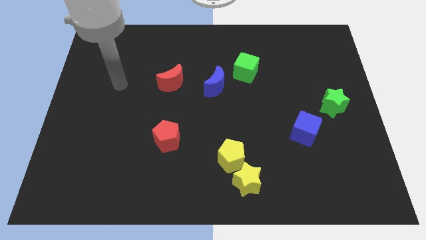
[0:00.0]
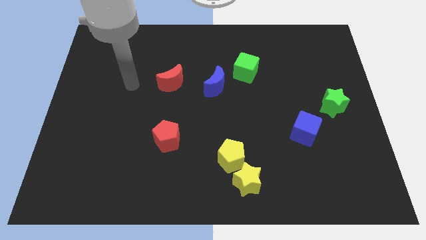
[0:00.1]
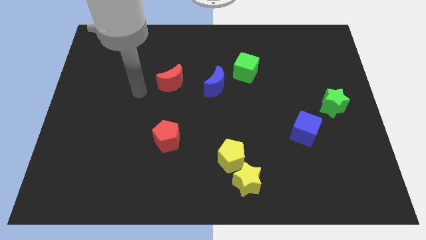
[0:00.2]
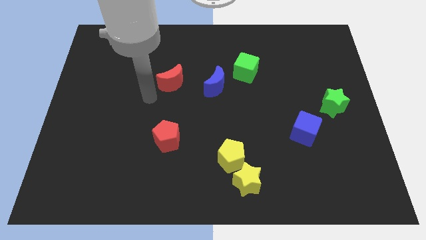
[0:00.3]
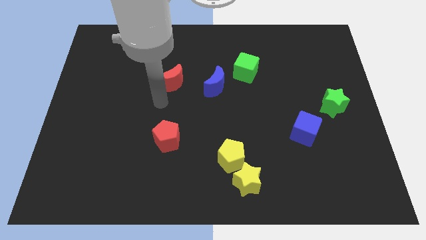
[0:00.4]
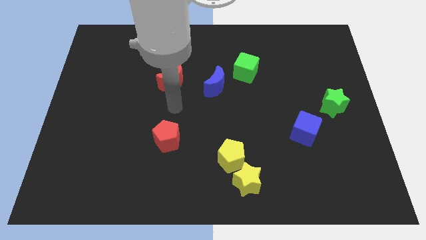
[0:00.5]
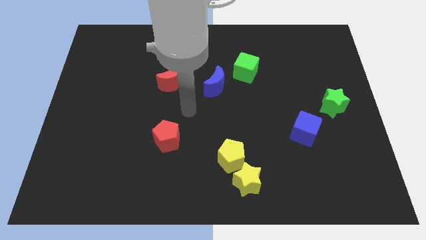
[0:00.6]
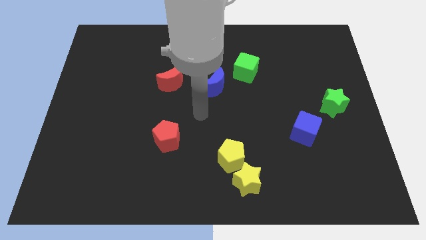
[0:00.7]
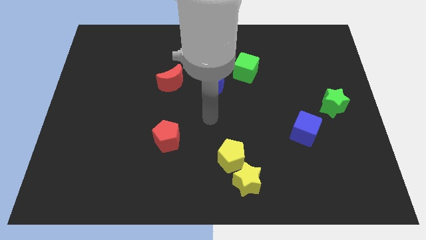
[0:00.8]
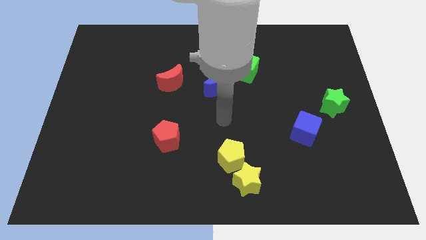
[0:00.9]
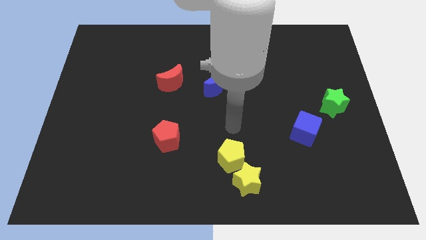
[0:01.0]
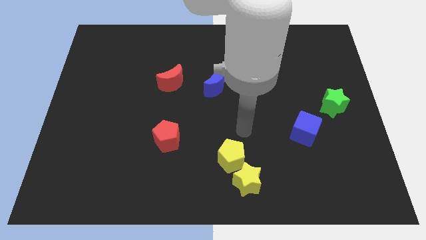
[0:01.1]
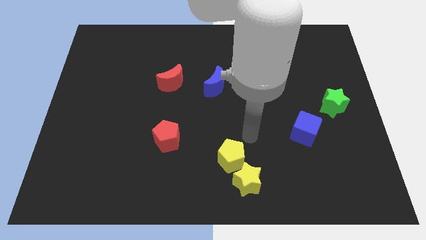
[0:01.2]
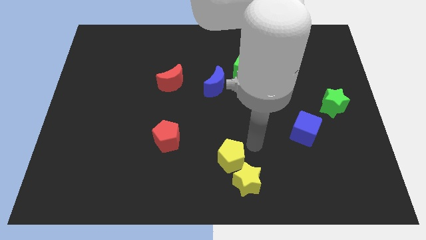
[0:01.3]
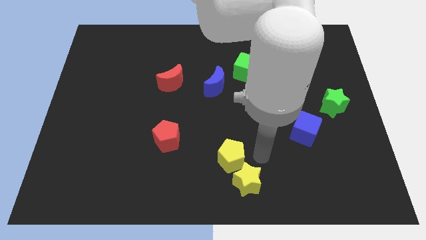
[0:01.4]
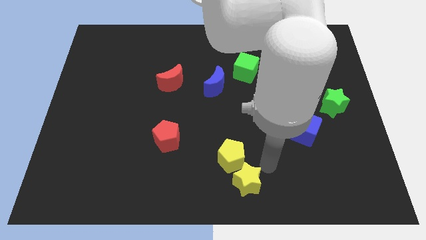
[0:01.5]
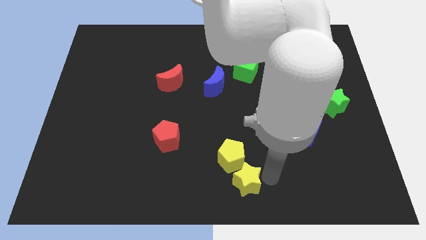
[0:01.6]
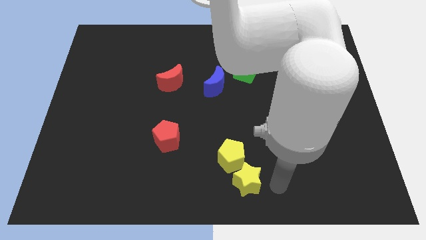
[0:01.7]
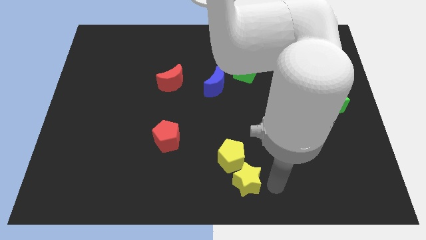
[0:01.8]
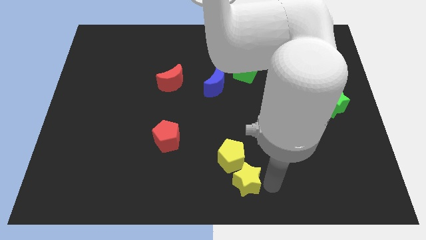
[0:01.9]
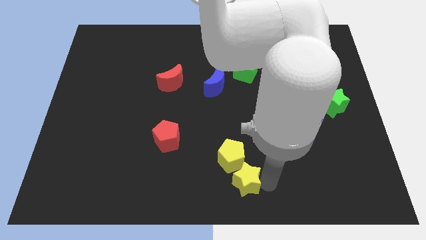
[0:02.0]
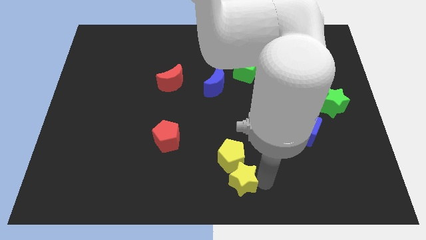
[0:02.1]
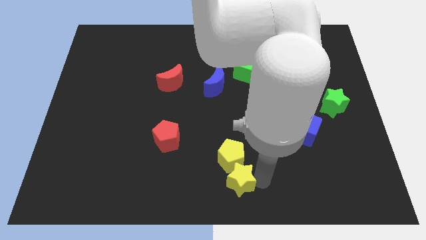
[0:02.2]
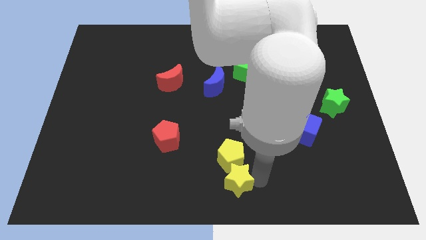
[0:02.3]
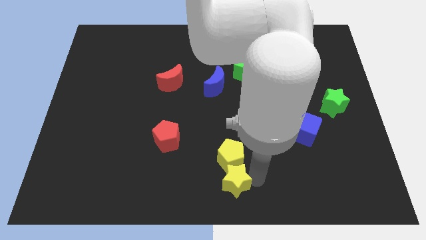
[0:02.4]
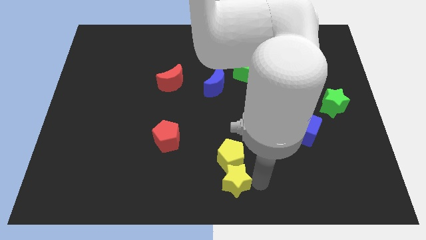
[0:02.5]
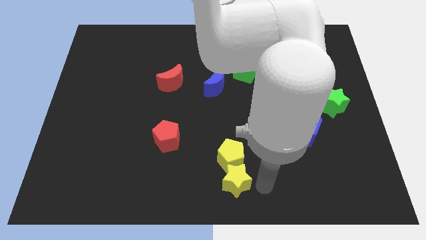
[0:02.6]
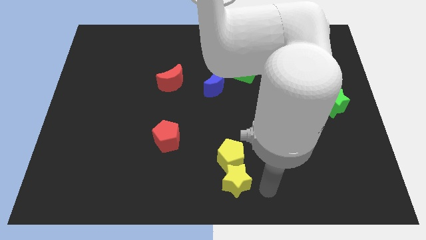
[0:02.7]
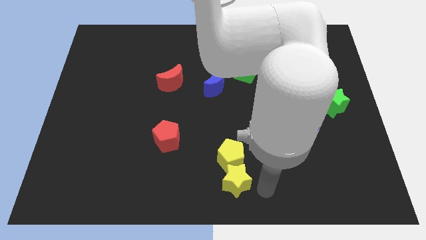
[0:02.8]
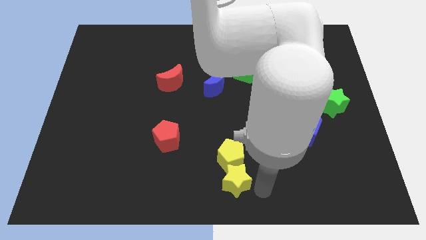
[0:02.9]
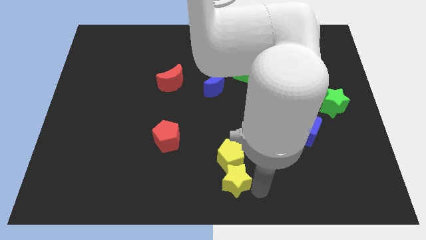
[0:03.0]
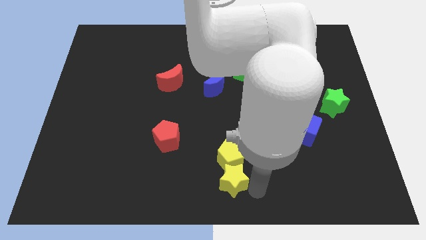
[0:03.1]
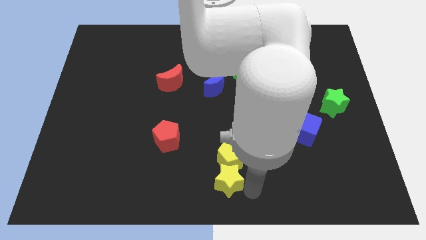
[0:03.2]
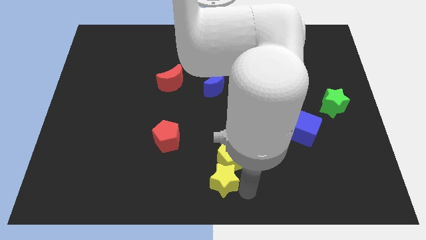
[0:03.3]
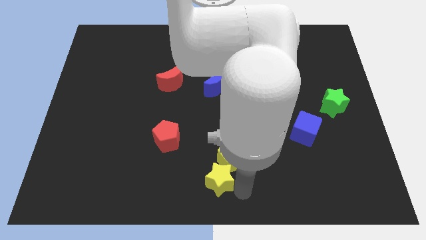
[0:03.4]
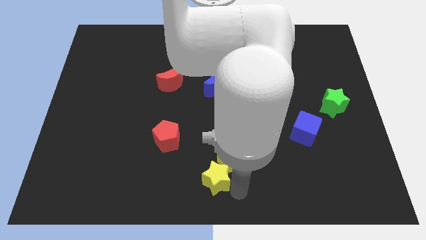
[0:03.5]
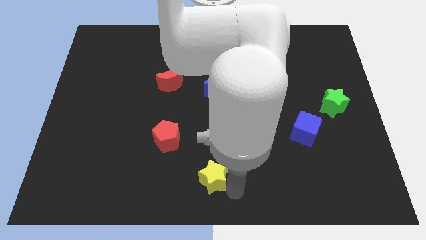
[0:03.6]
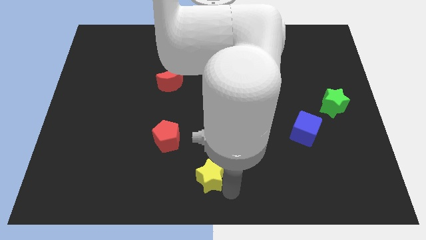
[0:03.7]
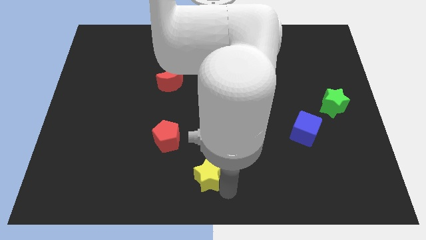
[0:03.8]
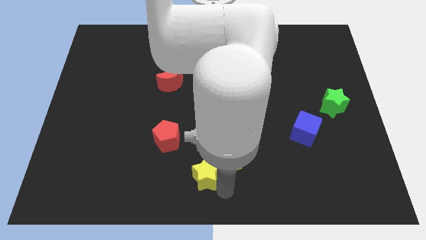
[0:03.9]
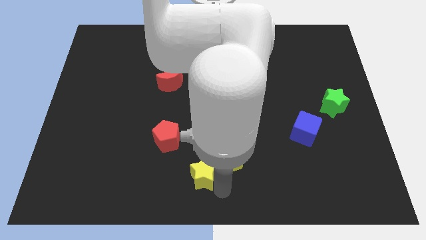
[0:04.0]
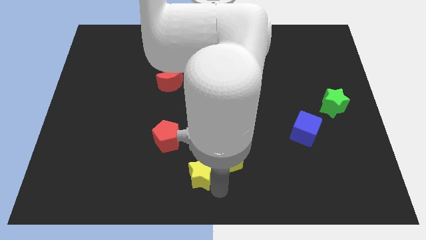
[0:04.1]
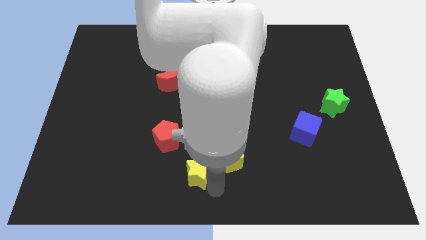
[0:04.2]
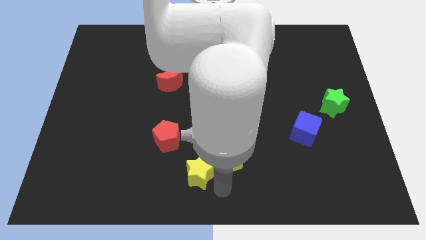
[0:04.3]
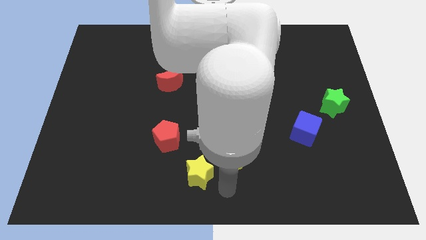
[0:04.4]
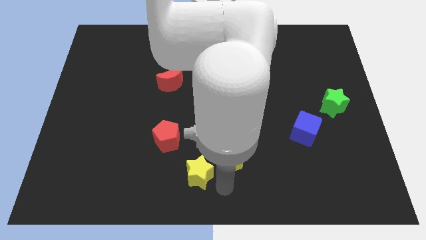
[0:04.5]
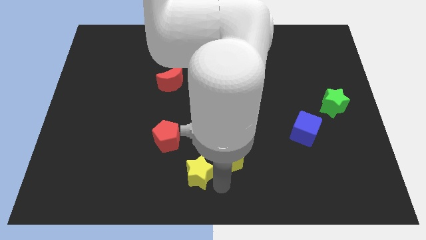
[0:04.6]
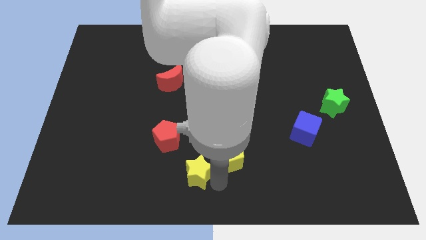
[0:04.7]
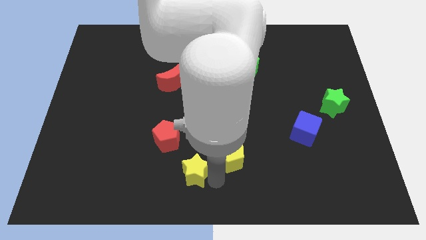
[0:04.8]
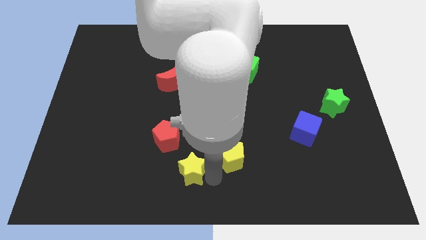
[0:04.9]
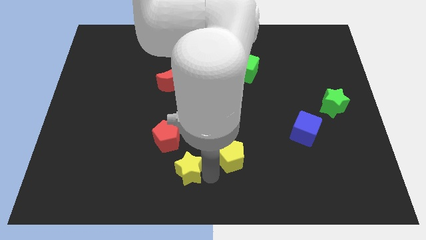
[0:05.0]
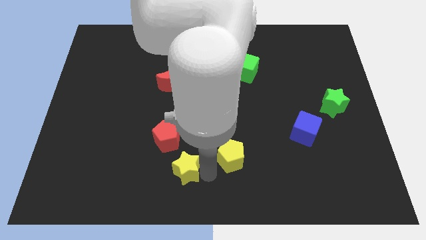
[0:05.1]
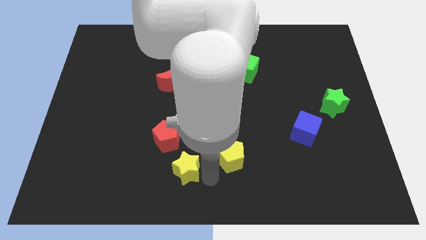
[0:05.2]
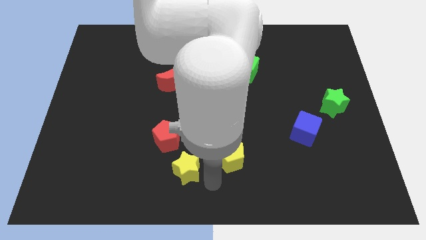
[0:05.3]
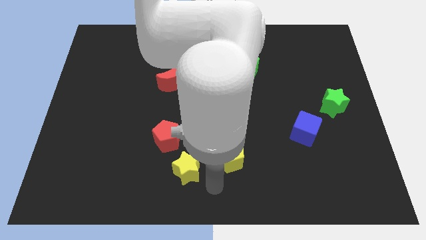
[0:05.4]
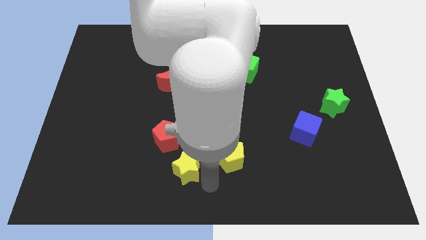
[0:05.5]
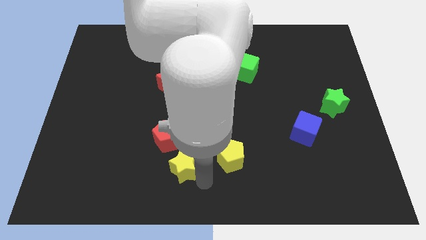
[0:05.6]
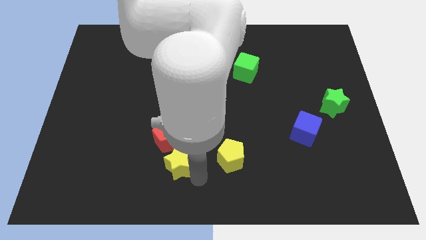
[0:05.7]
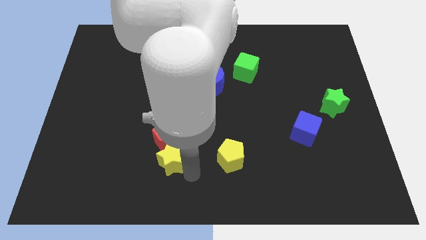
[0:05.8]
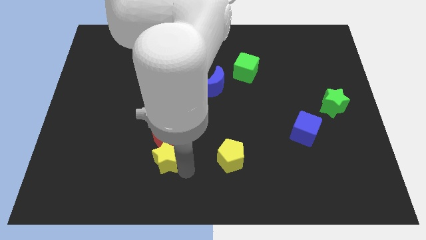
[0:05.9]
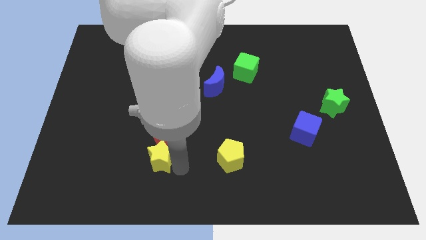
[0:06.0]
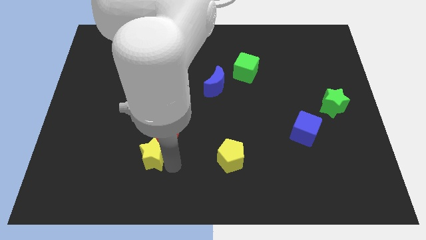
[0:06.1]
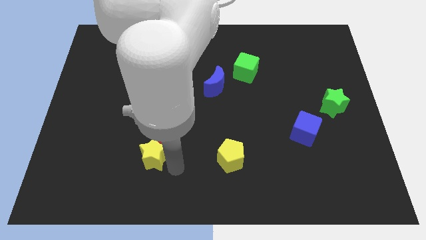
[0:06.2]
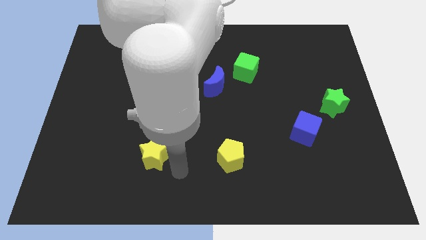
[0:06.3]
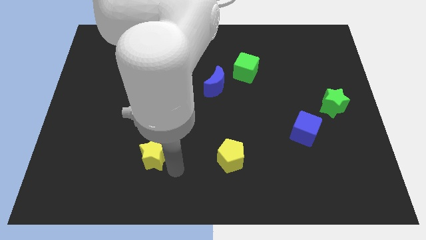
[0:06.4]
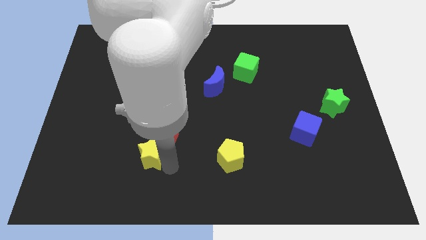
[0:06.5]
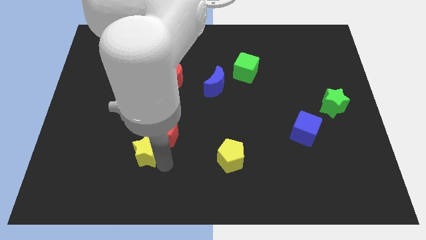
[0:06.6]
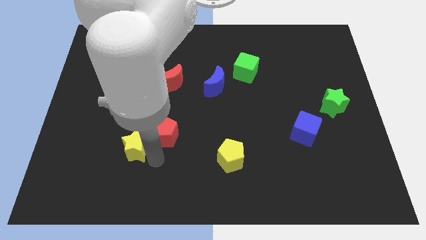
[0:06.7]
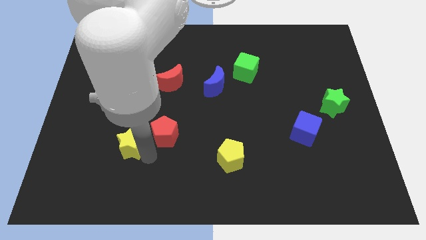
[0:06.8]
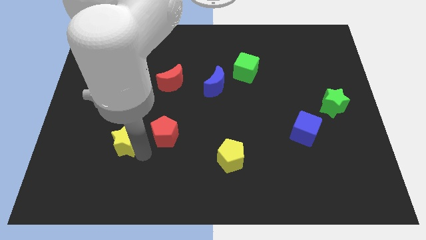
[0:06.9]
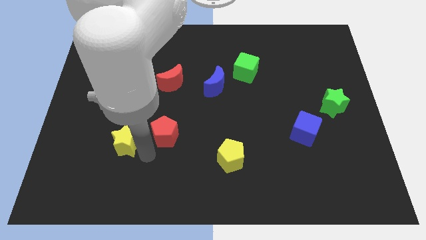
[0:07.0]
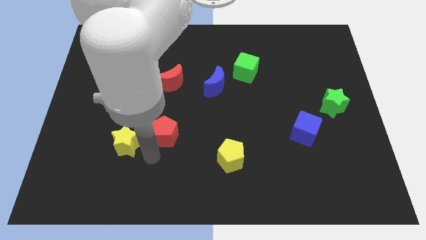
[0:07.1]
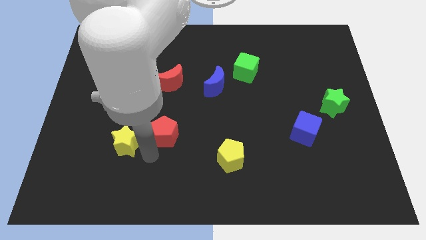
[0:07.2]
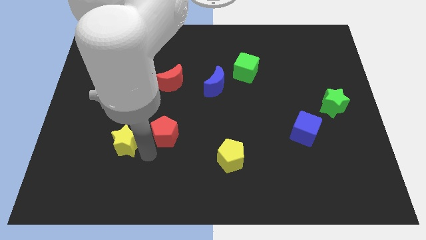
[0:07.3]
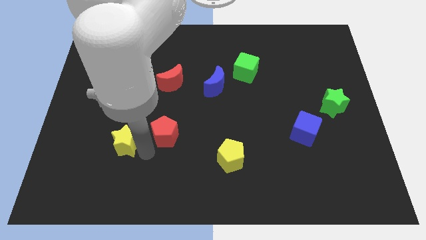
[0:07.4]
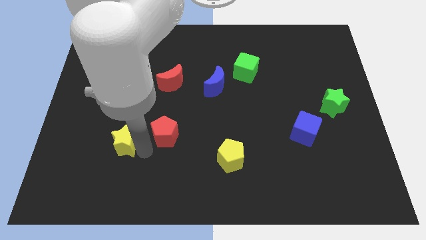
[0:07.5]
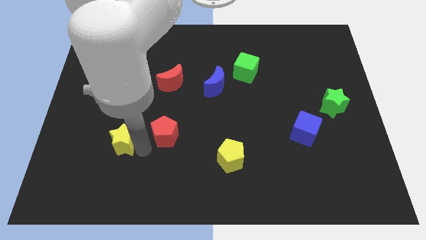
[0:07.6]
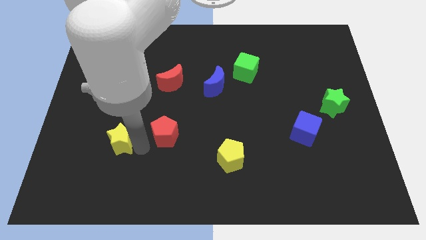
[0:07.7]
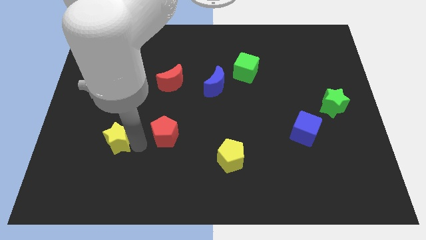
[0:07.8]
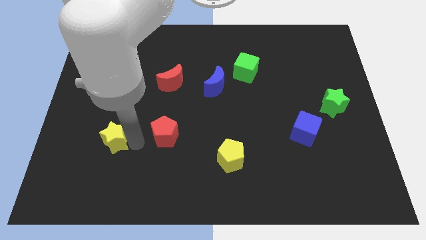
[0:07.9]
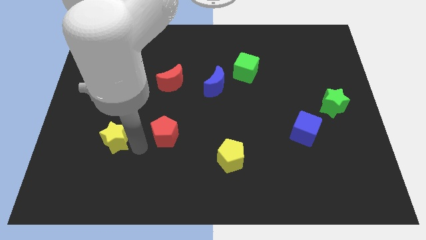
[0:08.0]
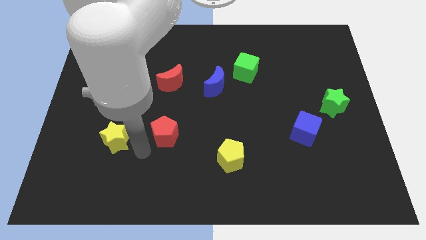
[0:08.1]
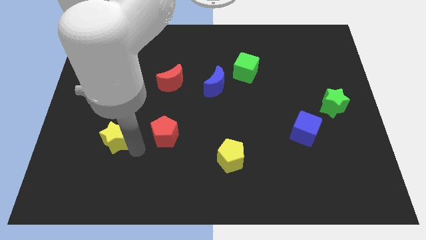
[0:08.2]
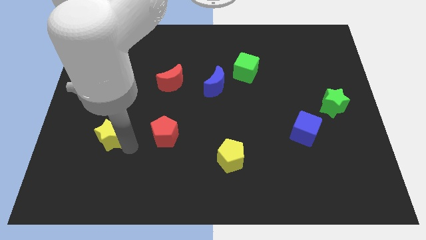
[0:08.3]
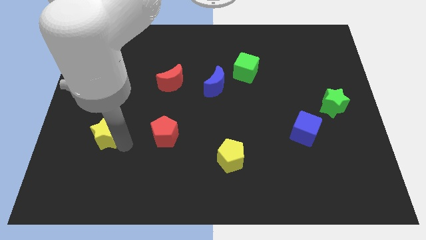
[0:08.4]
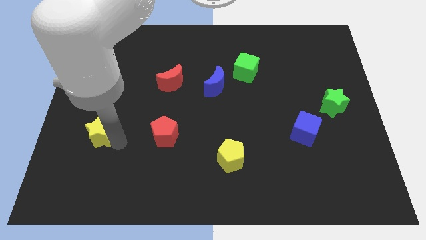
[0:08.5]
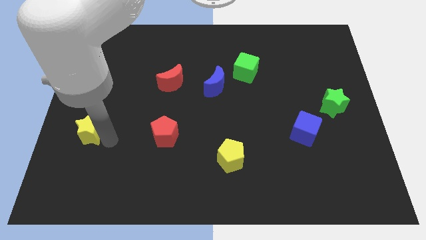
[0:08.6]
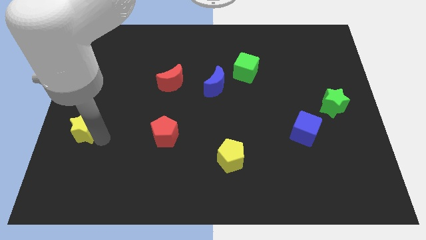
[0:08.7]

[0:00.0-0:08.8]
slide the yellow star to the center left
